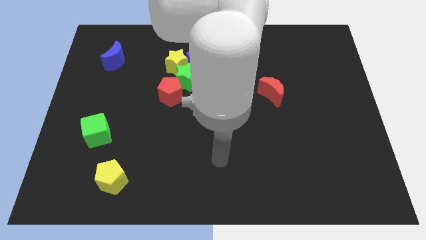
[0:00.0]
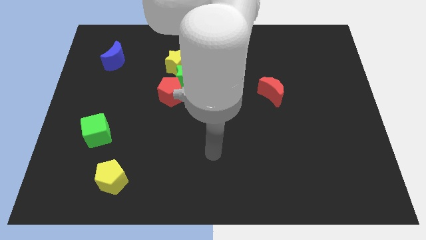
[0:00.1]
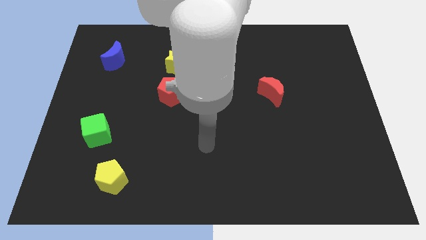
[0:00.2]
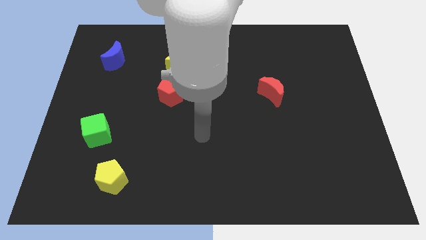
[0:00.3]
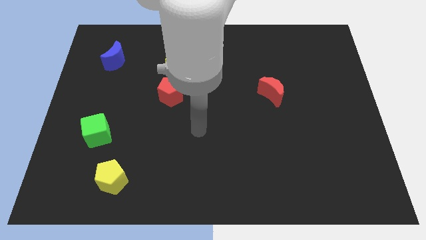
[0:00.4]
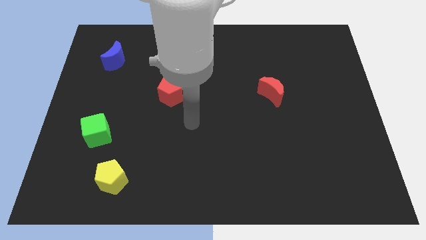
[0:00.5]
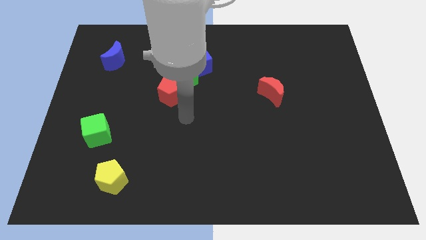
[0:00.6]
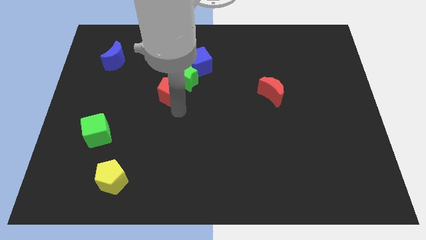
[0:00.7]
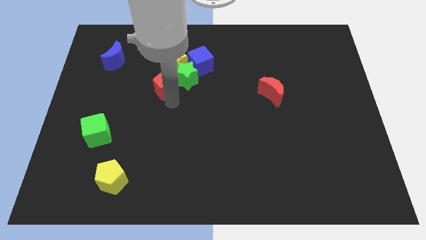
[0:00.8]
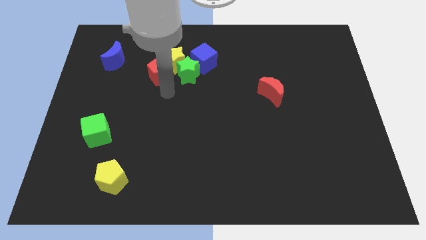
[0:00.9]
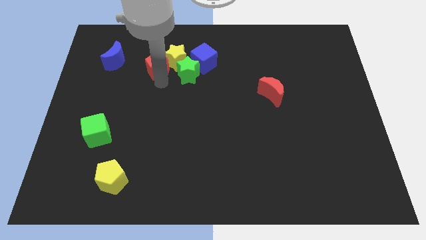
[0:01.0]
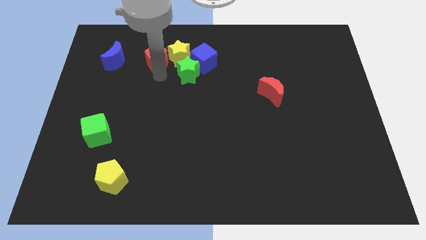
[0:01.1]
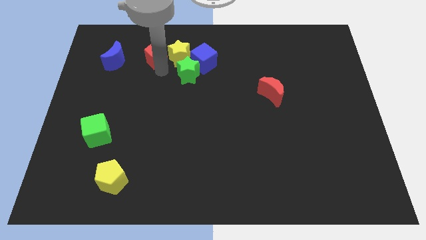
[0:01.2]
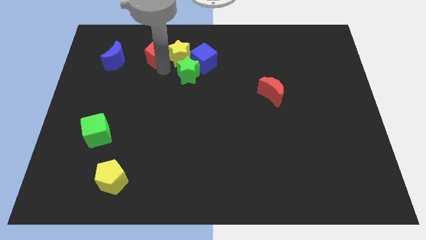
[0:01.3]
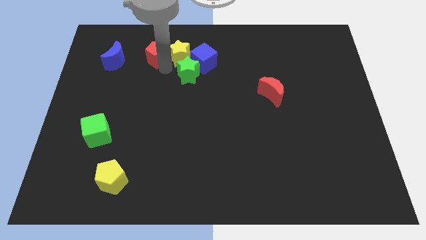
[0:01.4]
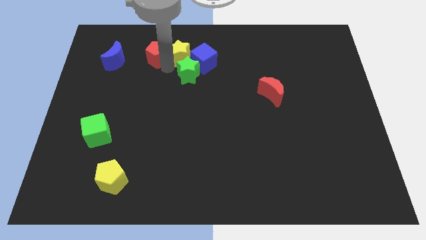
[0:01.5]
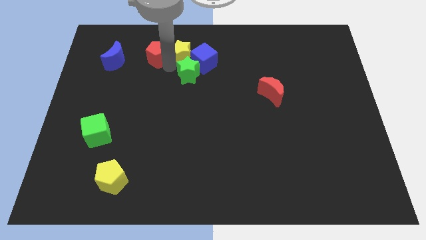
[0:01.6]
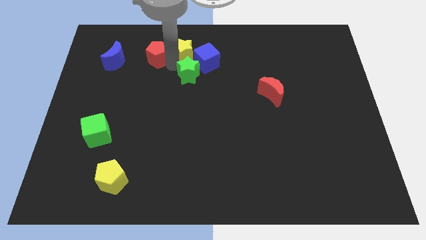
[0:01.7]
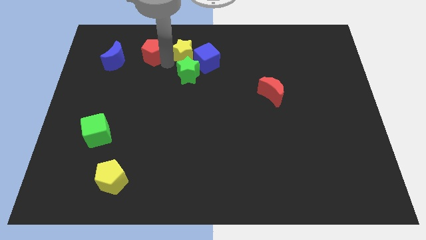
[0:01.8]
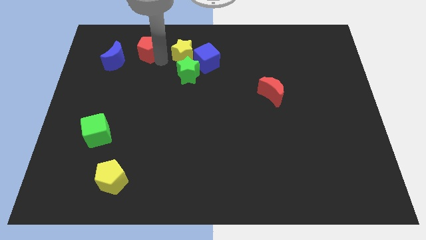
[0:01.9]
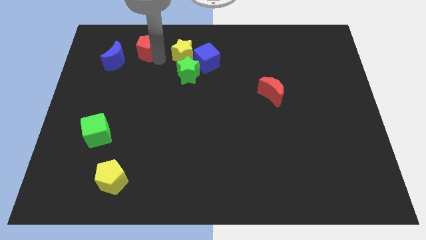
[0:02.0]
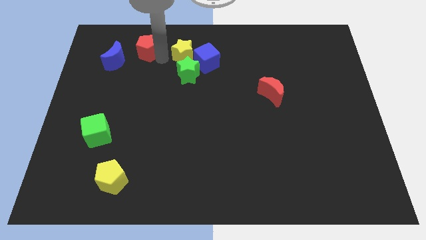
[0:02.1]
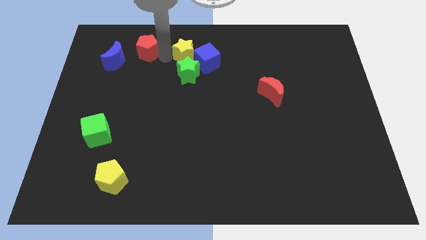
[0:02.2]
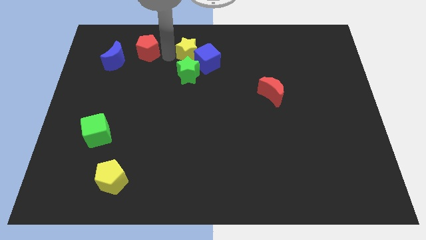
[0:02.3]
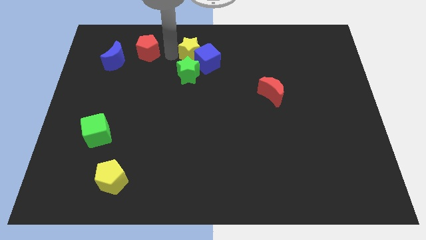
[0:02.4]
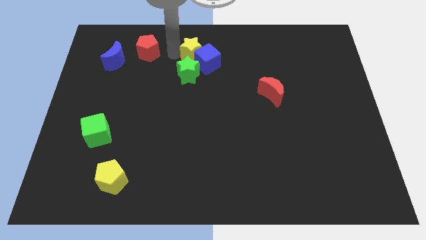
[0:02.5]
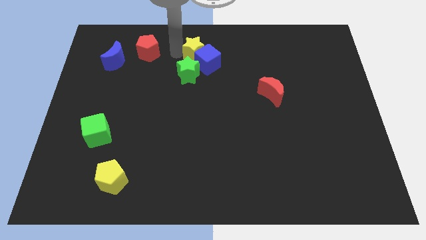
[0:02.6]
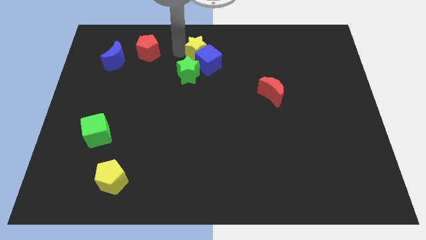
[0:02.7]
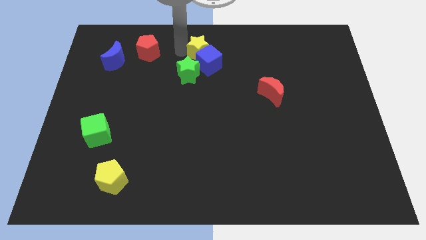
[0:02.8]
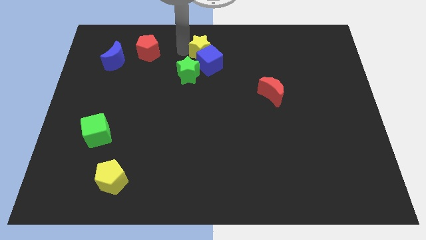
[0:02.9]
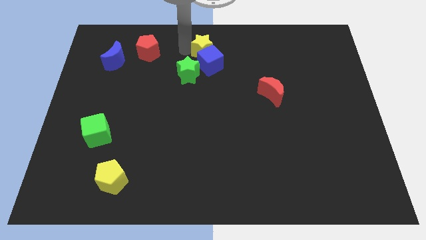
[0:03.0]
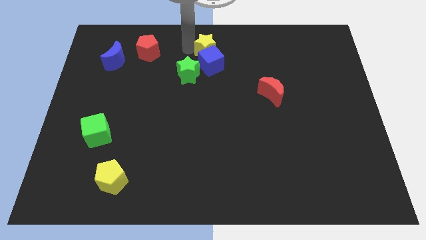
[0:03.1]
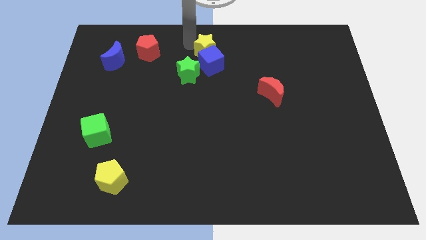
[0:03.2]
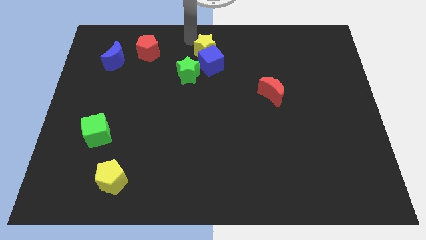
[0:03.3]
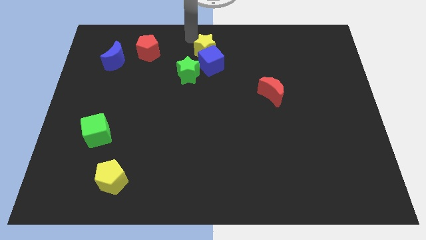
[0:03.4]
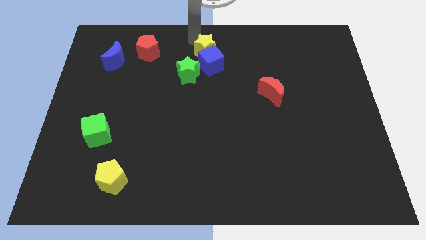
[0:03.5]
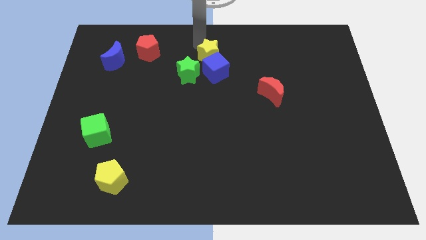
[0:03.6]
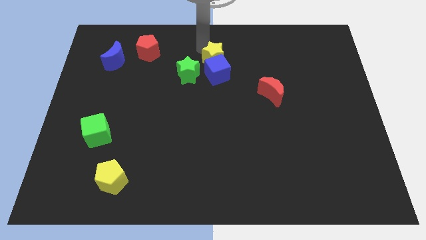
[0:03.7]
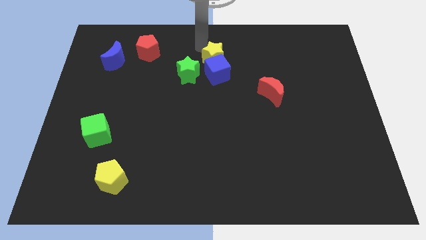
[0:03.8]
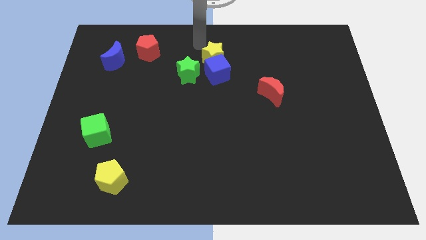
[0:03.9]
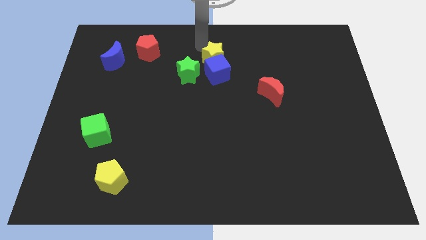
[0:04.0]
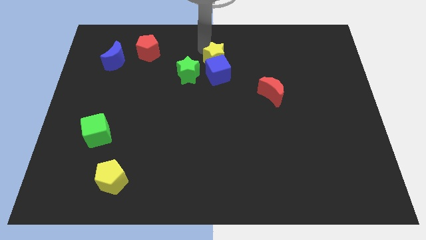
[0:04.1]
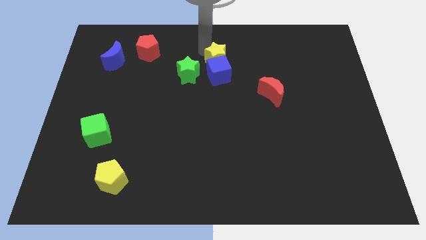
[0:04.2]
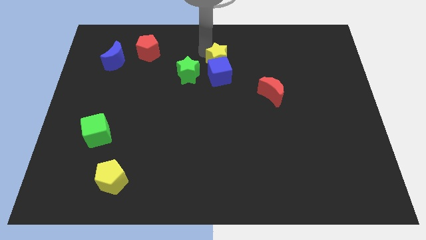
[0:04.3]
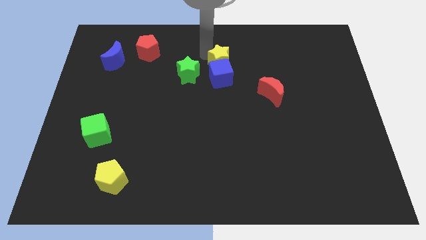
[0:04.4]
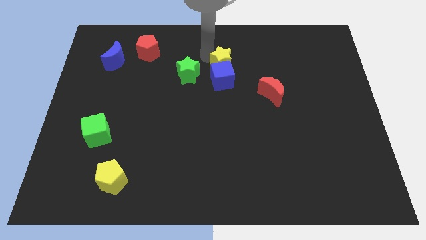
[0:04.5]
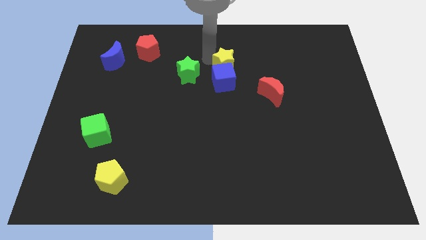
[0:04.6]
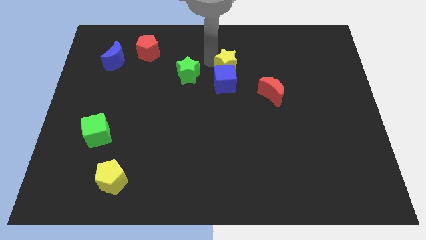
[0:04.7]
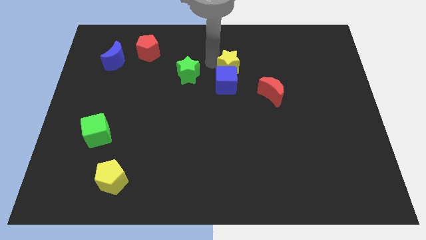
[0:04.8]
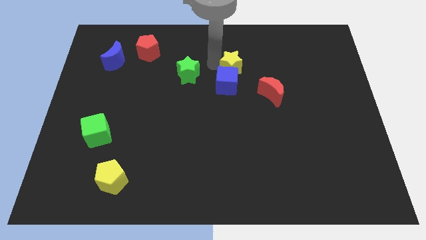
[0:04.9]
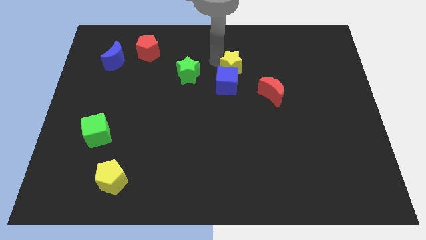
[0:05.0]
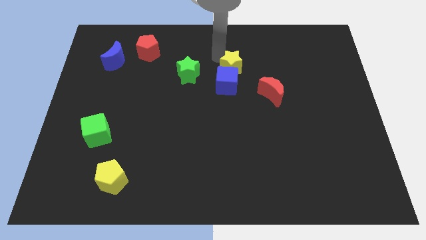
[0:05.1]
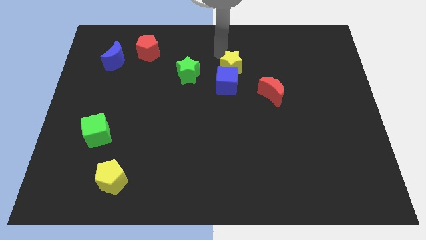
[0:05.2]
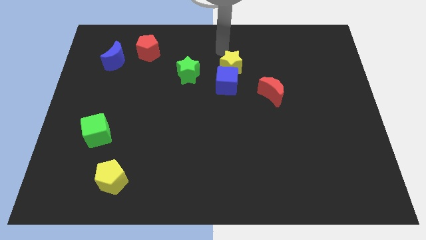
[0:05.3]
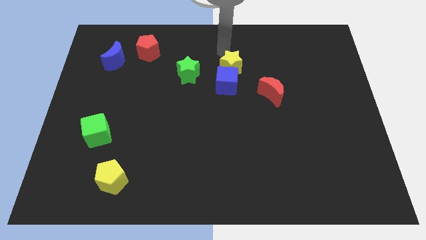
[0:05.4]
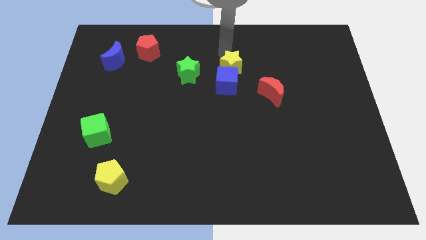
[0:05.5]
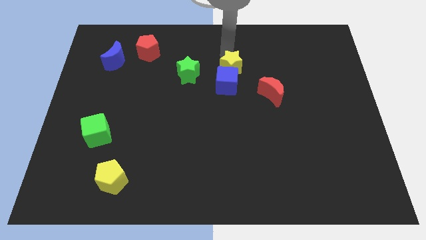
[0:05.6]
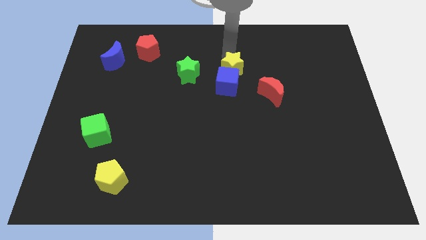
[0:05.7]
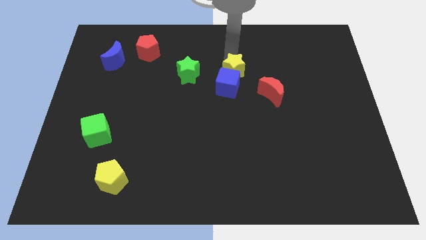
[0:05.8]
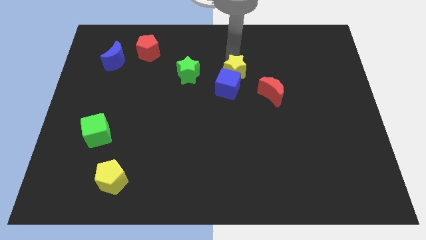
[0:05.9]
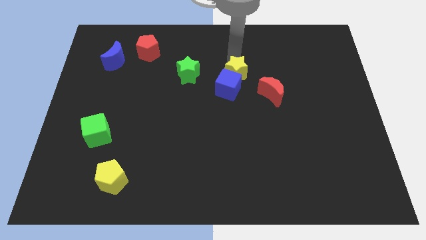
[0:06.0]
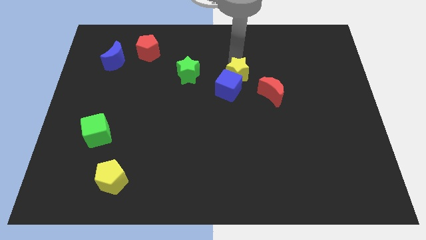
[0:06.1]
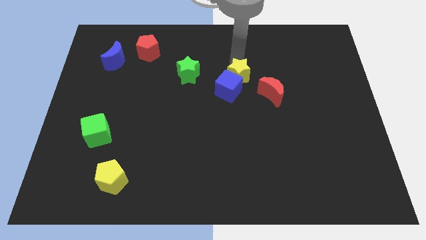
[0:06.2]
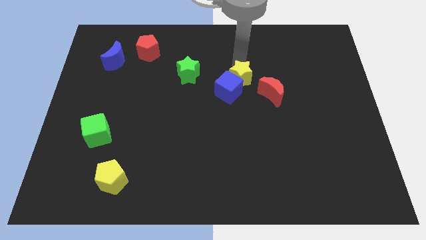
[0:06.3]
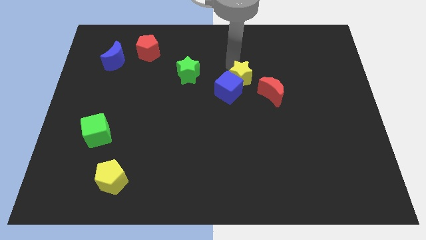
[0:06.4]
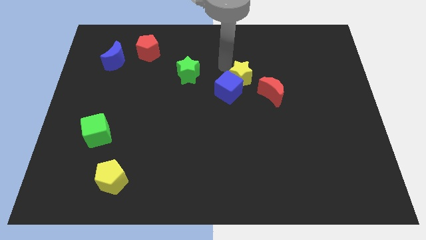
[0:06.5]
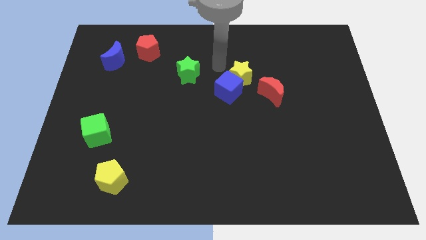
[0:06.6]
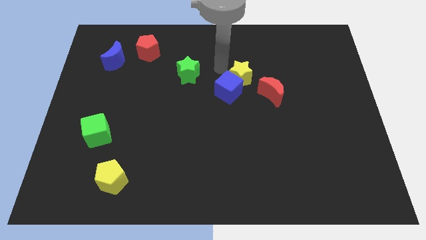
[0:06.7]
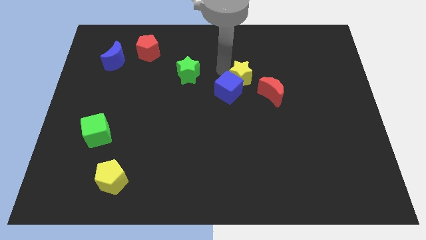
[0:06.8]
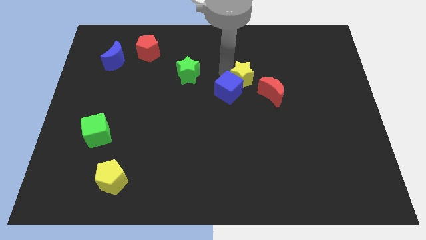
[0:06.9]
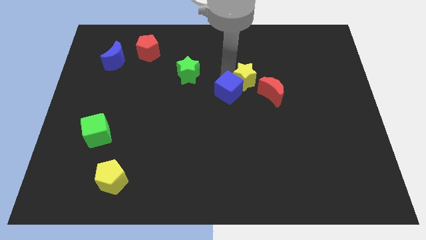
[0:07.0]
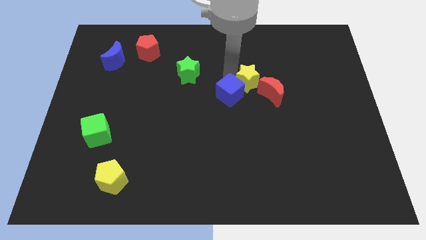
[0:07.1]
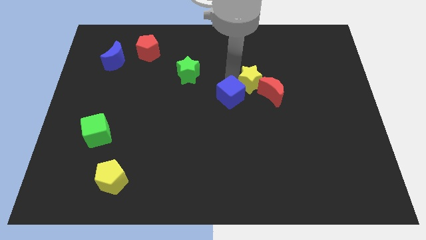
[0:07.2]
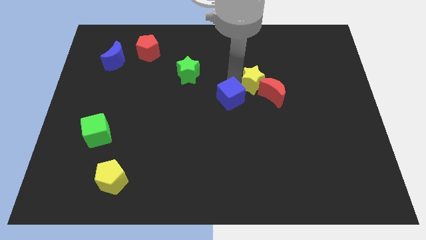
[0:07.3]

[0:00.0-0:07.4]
move the yellow star close to the red moon

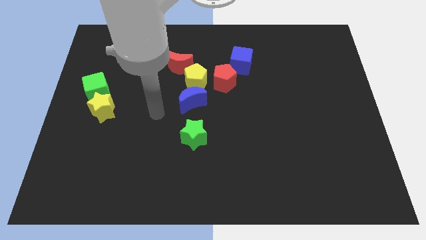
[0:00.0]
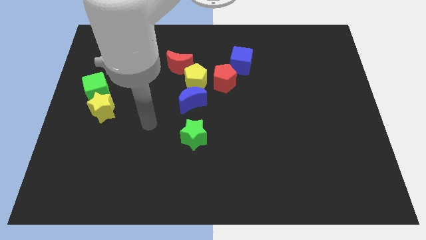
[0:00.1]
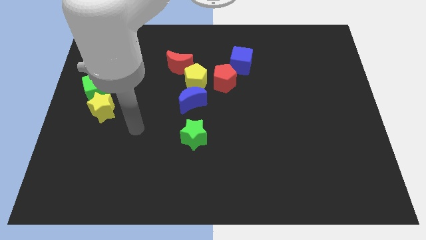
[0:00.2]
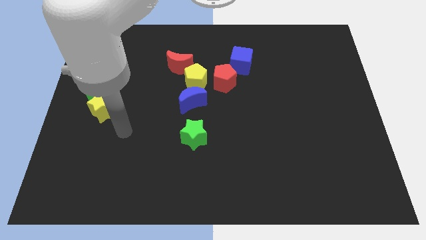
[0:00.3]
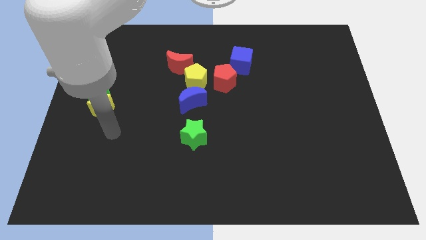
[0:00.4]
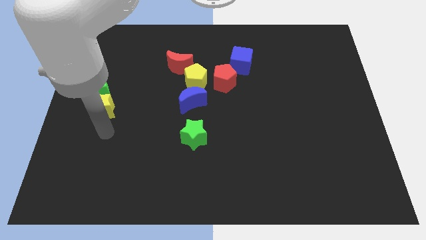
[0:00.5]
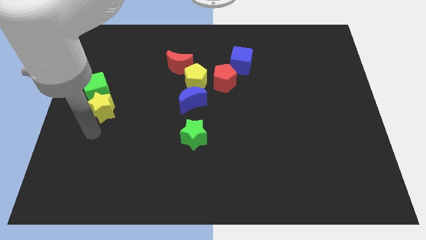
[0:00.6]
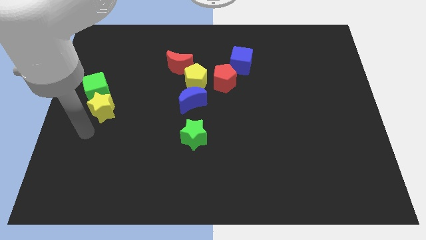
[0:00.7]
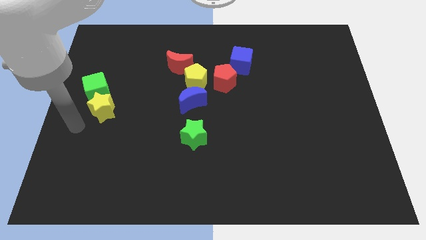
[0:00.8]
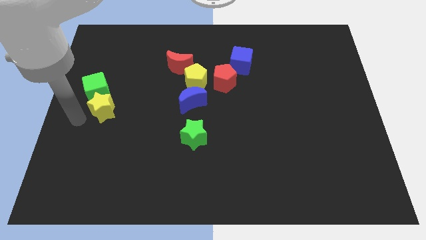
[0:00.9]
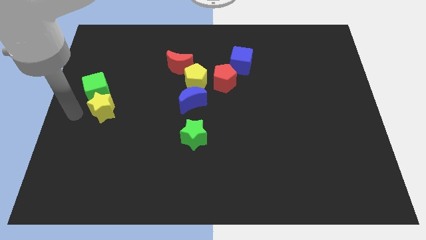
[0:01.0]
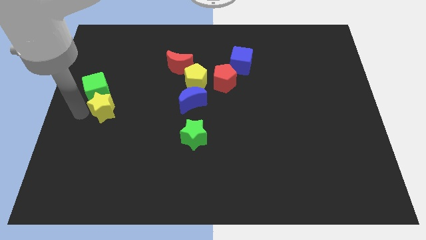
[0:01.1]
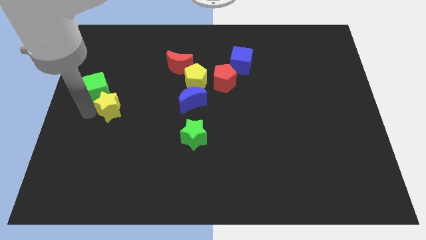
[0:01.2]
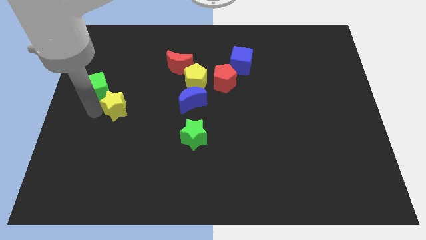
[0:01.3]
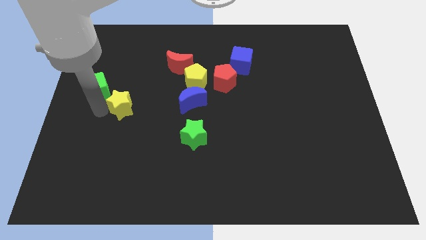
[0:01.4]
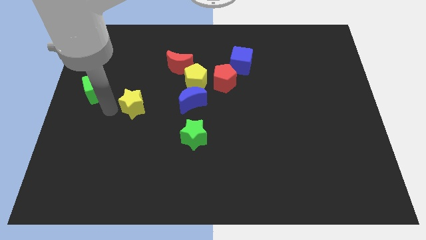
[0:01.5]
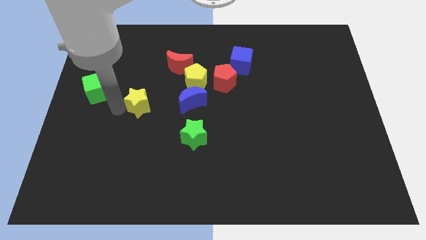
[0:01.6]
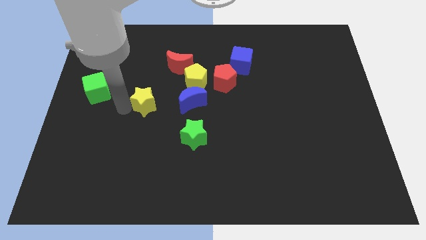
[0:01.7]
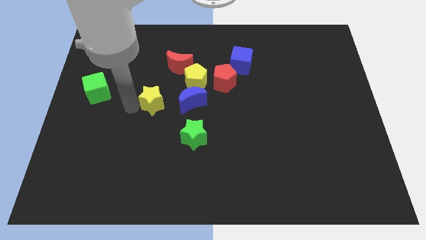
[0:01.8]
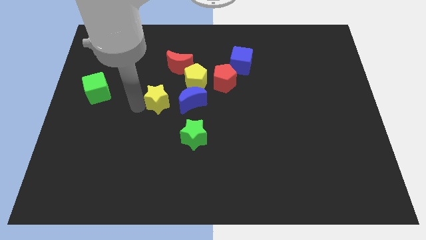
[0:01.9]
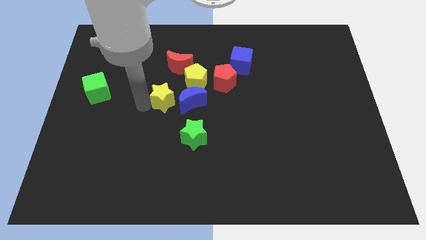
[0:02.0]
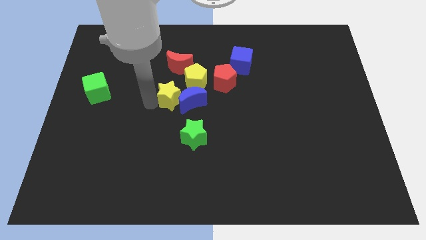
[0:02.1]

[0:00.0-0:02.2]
push the yellow star to the blue moon
